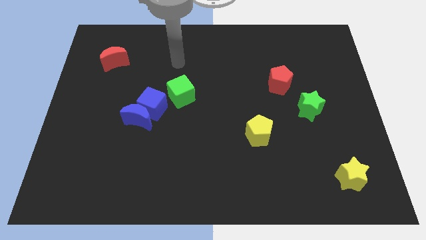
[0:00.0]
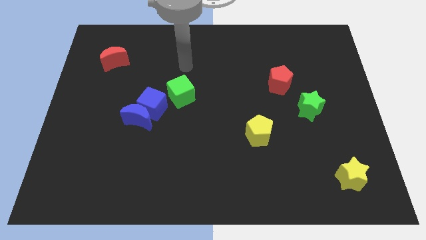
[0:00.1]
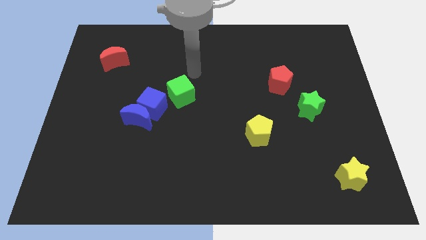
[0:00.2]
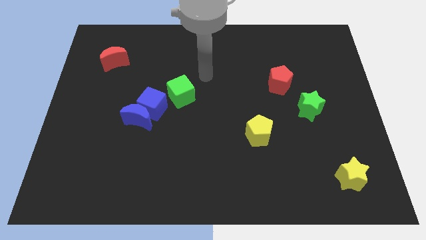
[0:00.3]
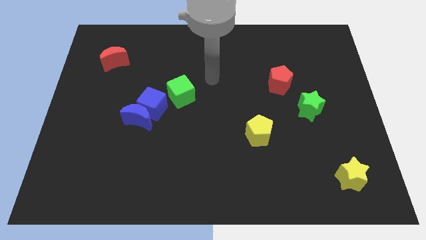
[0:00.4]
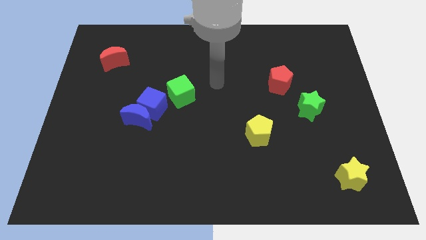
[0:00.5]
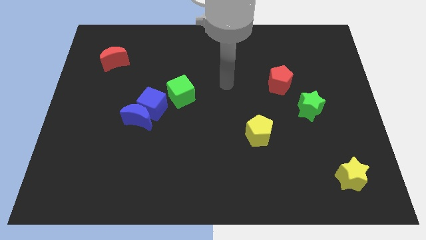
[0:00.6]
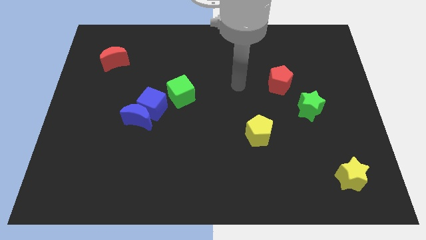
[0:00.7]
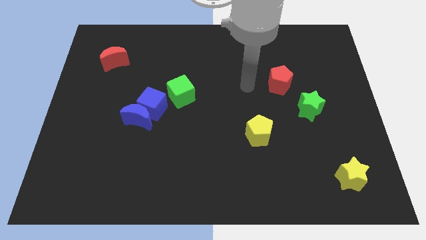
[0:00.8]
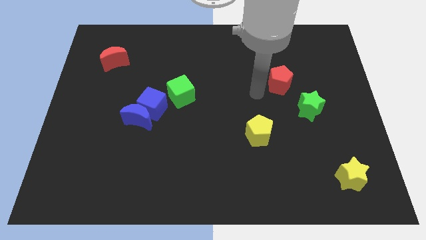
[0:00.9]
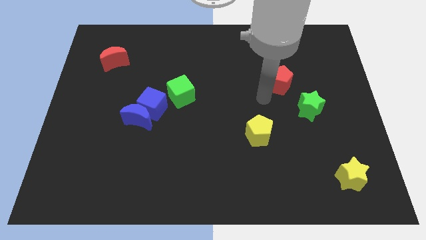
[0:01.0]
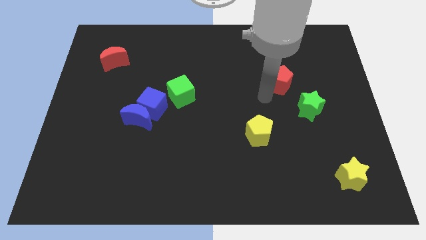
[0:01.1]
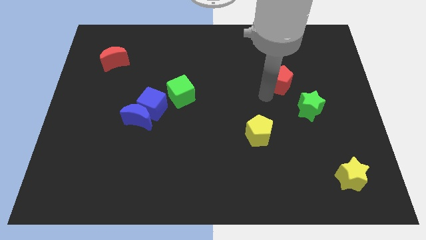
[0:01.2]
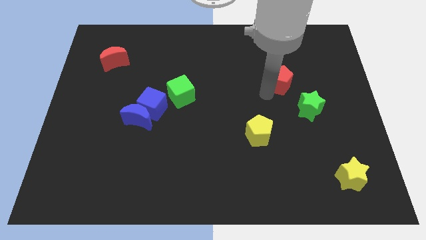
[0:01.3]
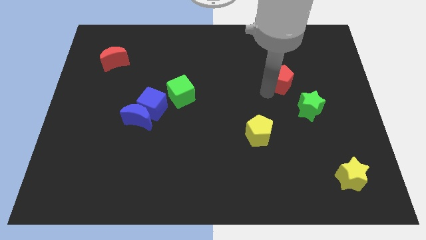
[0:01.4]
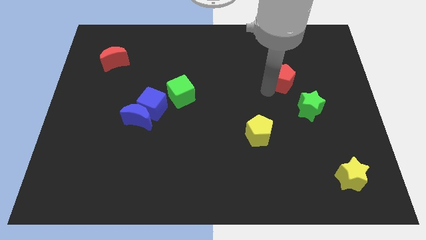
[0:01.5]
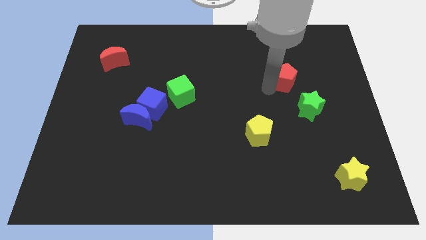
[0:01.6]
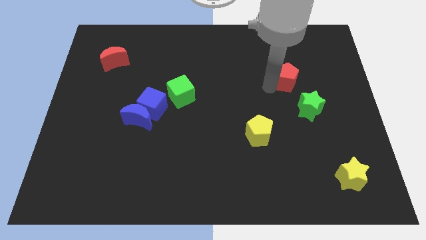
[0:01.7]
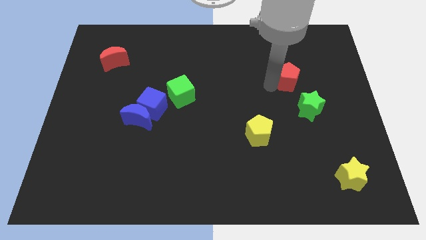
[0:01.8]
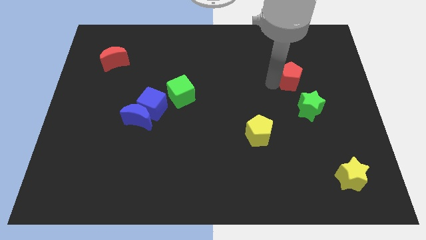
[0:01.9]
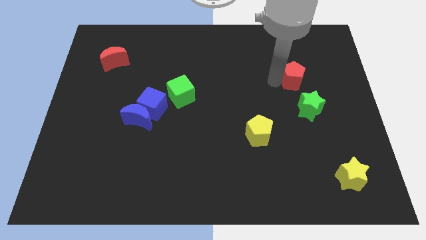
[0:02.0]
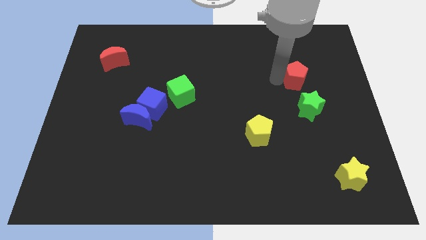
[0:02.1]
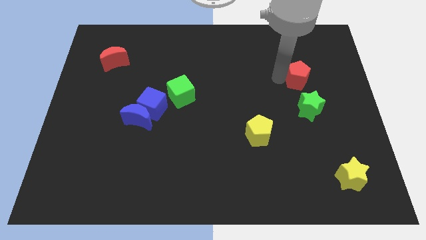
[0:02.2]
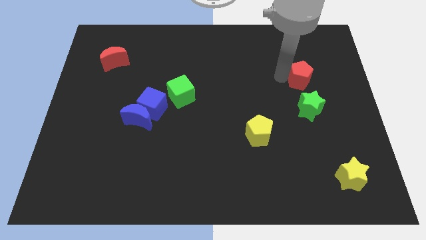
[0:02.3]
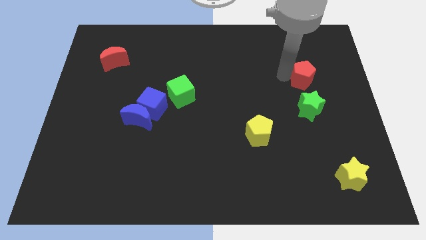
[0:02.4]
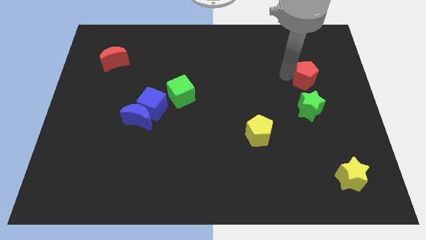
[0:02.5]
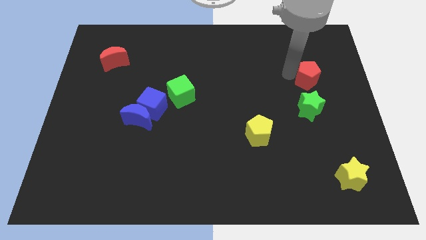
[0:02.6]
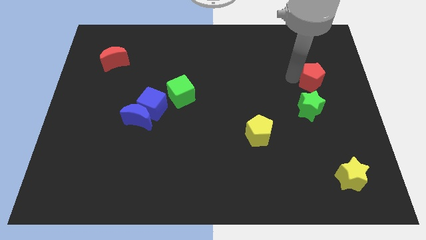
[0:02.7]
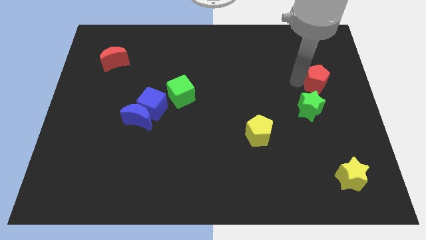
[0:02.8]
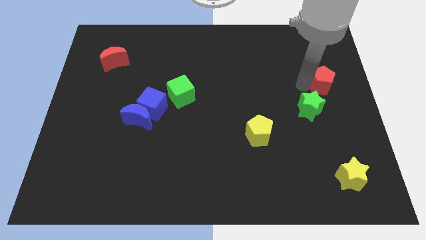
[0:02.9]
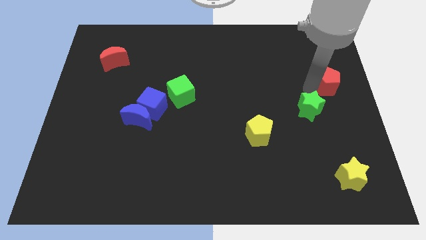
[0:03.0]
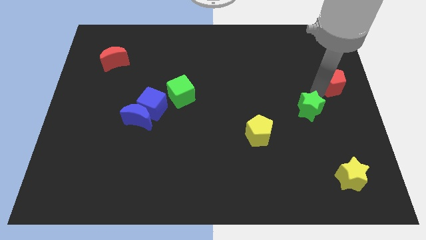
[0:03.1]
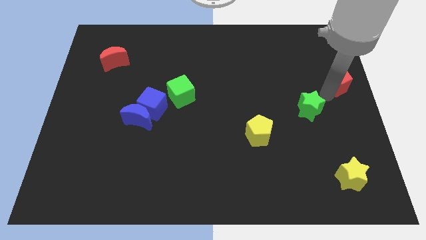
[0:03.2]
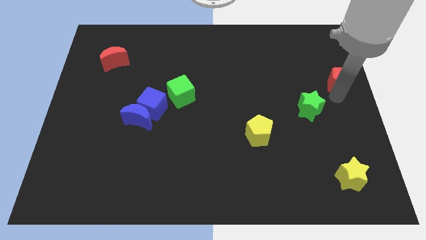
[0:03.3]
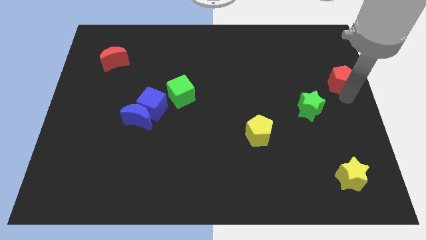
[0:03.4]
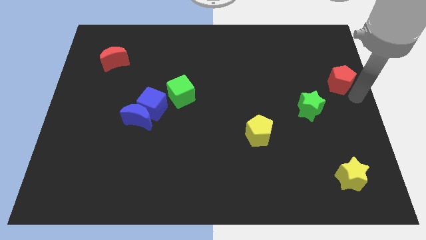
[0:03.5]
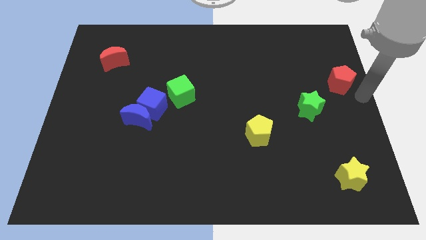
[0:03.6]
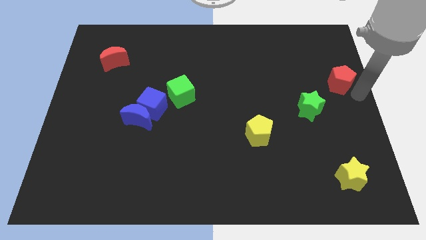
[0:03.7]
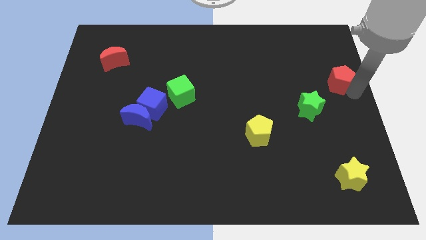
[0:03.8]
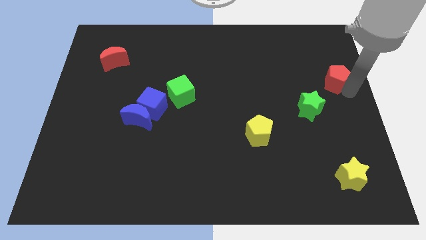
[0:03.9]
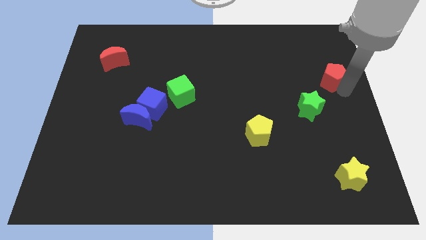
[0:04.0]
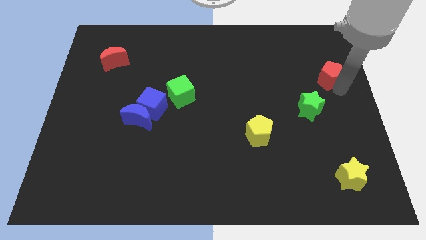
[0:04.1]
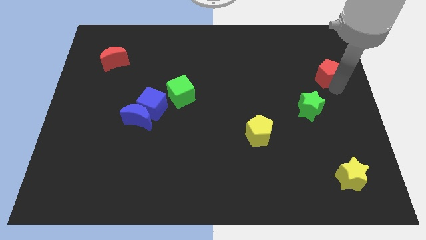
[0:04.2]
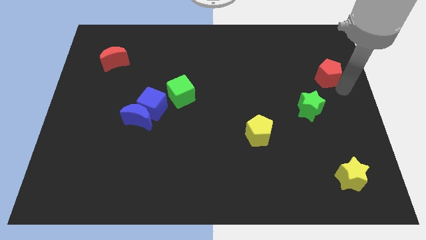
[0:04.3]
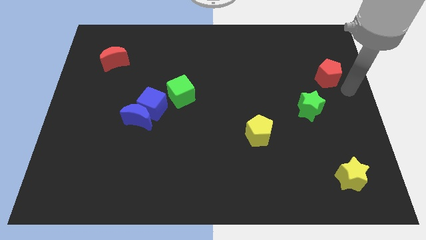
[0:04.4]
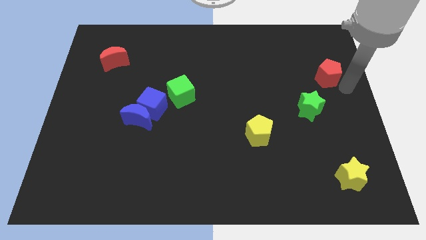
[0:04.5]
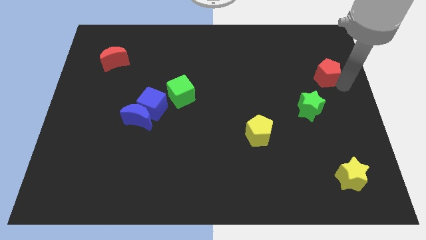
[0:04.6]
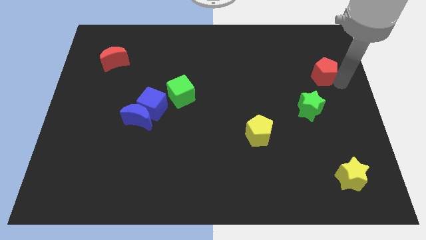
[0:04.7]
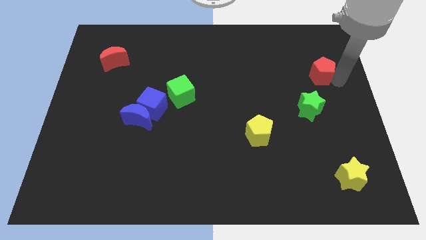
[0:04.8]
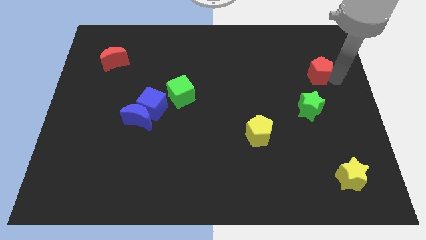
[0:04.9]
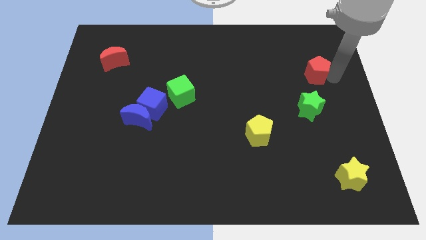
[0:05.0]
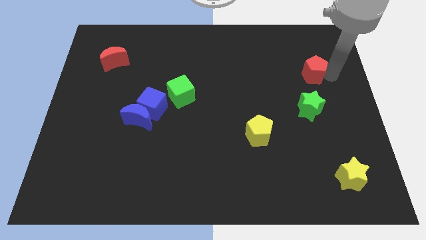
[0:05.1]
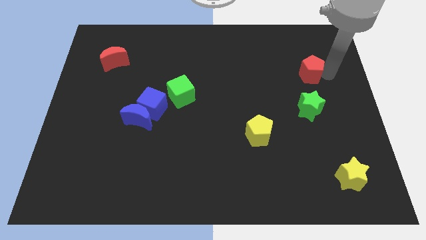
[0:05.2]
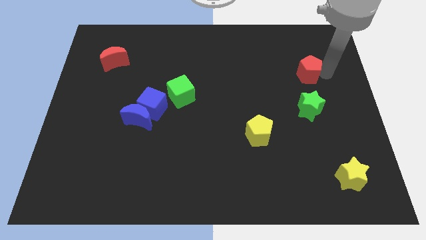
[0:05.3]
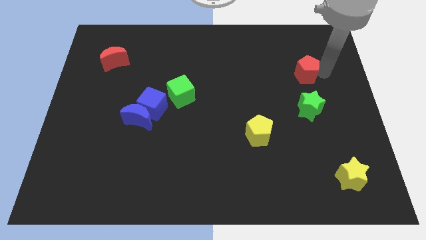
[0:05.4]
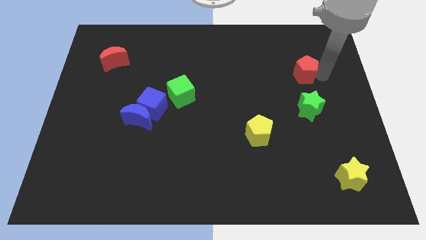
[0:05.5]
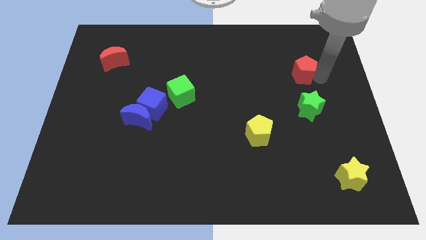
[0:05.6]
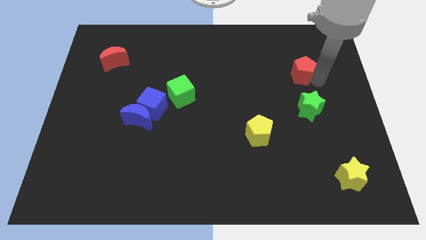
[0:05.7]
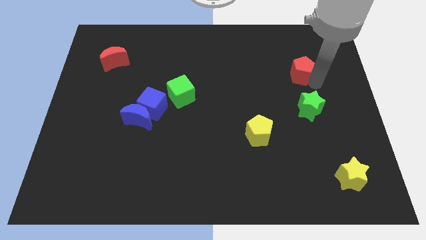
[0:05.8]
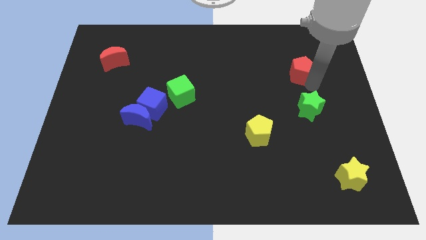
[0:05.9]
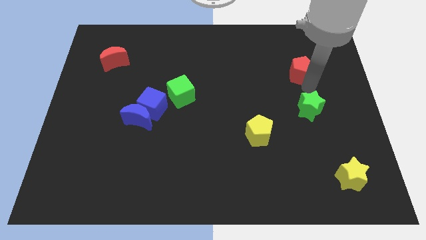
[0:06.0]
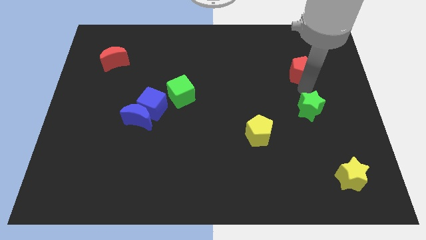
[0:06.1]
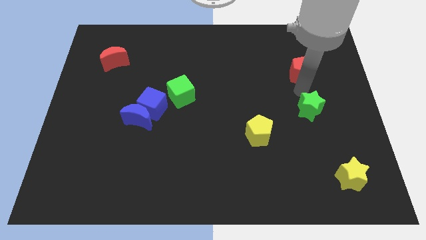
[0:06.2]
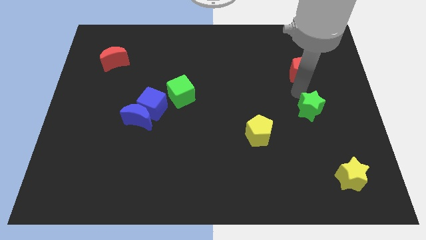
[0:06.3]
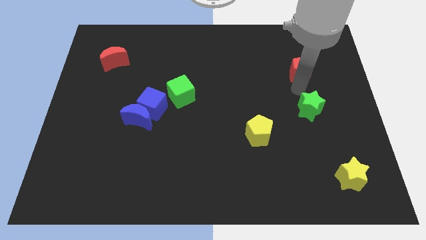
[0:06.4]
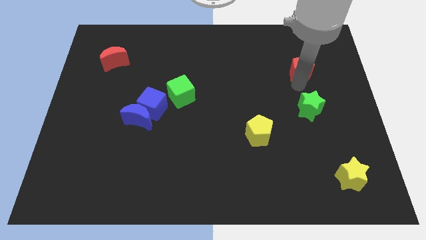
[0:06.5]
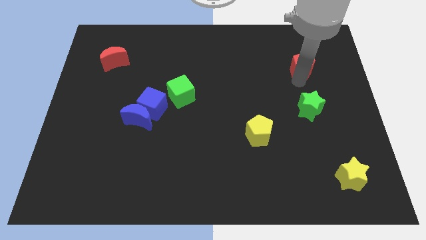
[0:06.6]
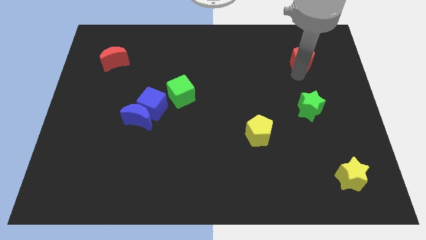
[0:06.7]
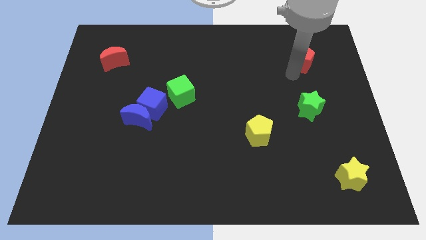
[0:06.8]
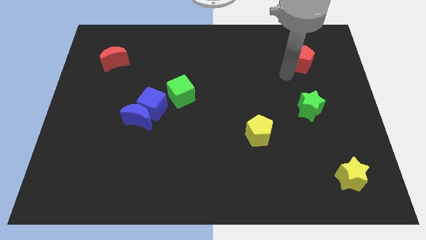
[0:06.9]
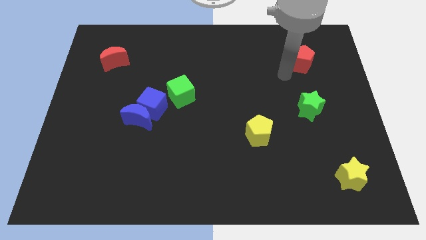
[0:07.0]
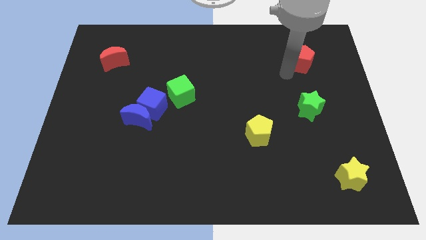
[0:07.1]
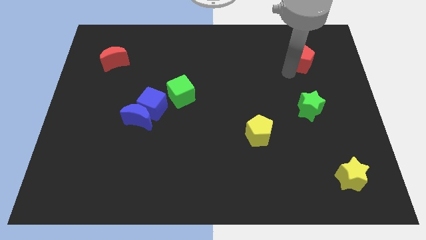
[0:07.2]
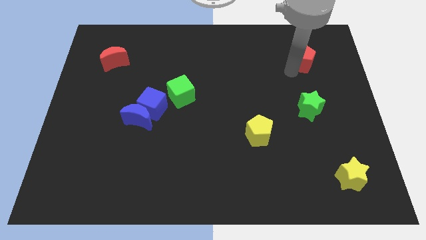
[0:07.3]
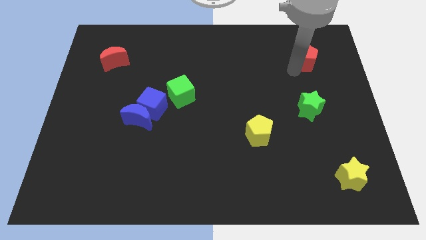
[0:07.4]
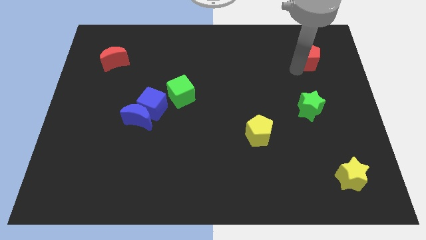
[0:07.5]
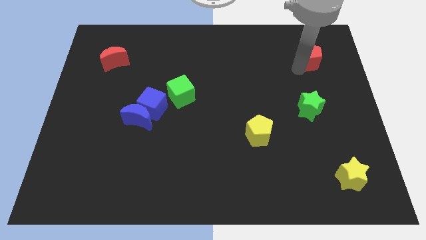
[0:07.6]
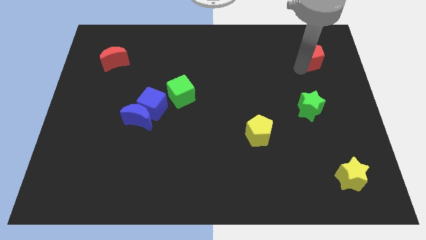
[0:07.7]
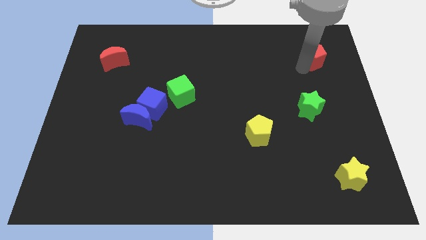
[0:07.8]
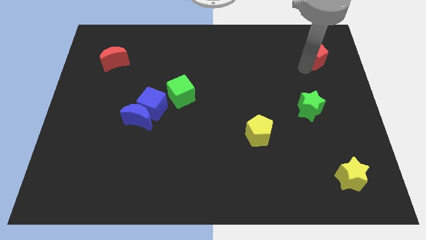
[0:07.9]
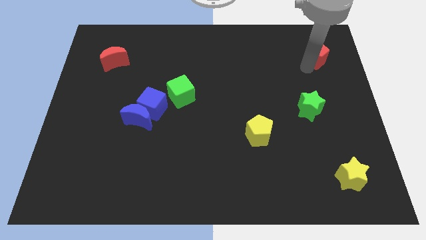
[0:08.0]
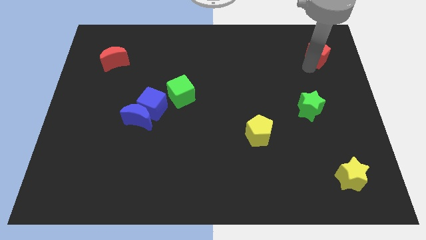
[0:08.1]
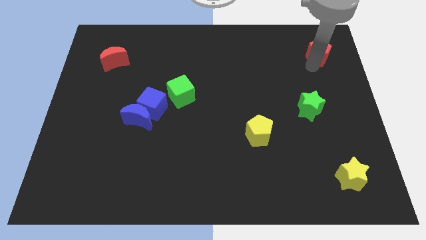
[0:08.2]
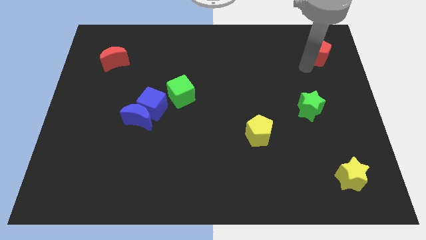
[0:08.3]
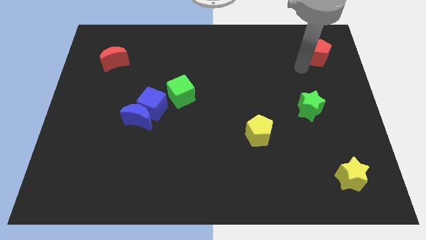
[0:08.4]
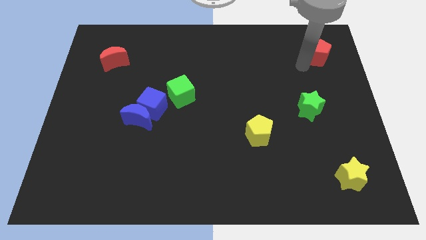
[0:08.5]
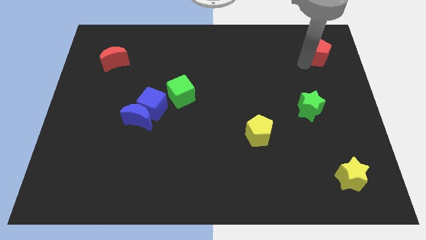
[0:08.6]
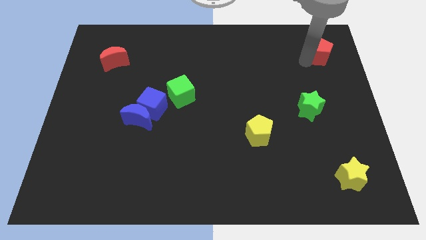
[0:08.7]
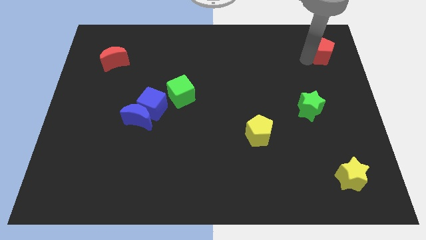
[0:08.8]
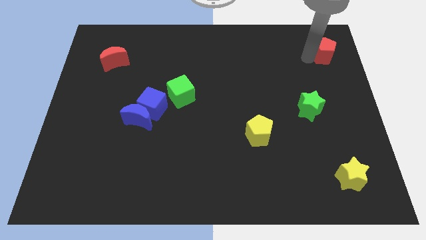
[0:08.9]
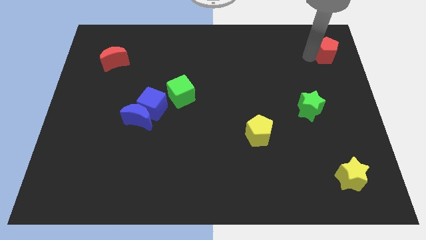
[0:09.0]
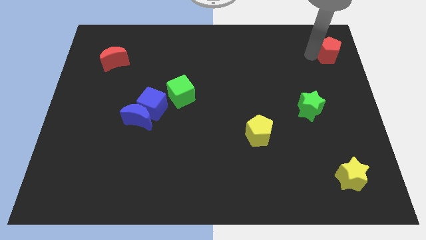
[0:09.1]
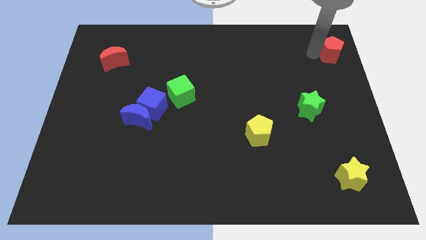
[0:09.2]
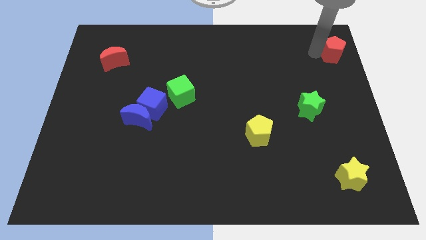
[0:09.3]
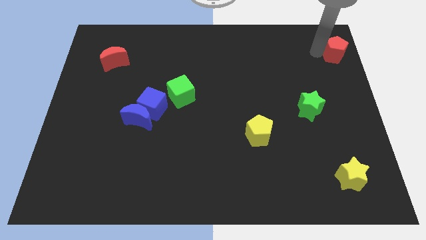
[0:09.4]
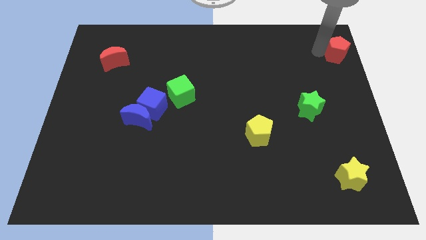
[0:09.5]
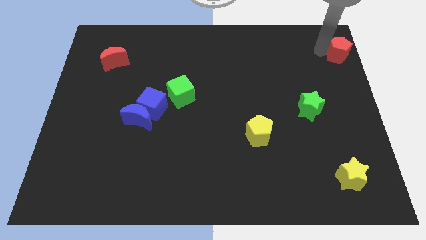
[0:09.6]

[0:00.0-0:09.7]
move the red pentagon to the top right
